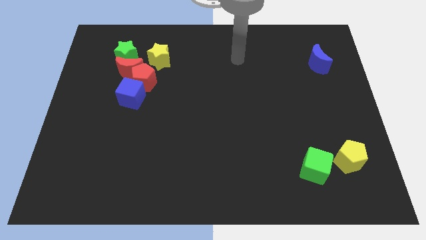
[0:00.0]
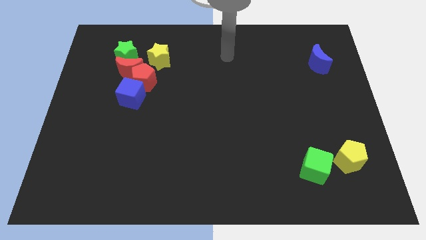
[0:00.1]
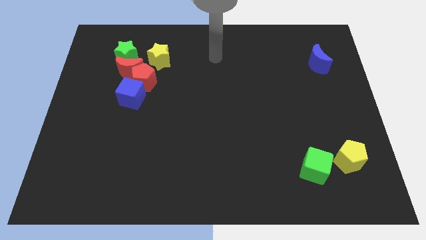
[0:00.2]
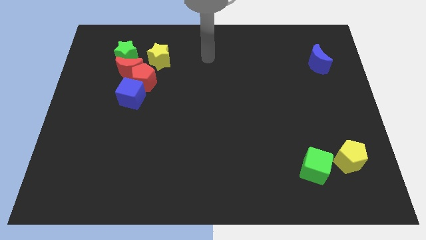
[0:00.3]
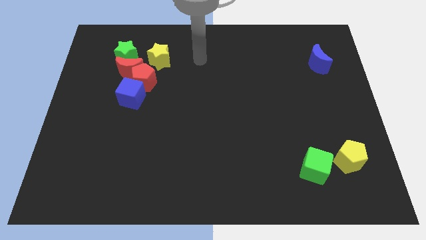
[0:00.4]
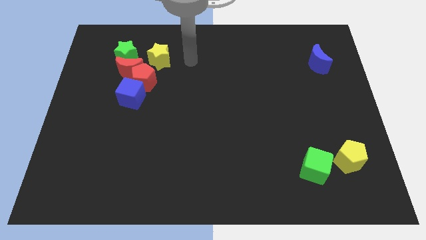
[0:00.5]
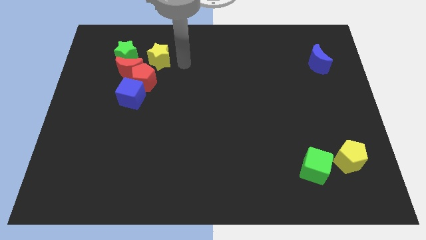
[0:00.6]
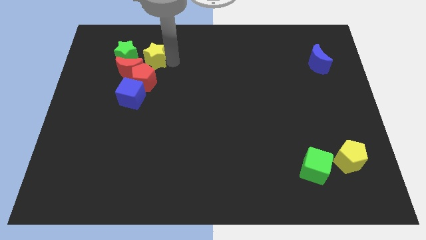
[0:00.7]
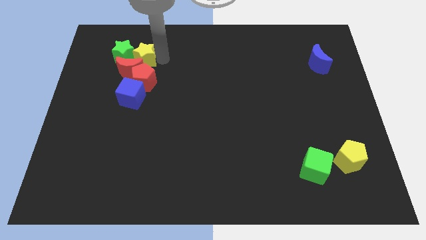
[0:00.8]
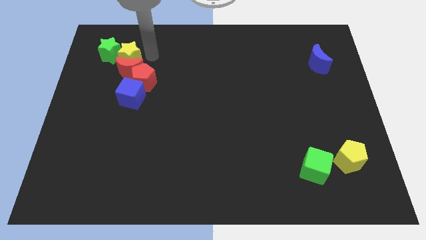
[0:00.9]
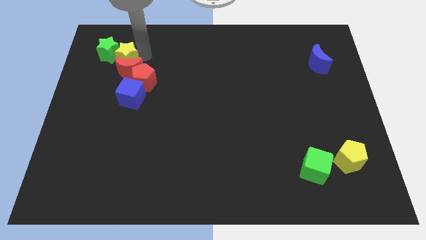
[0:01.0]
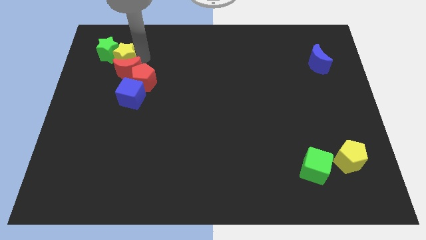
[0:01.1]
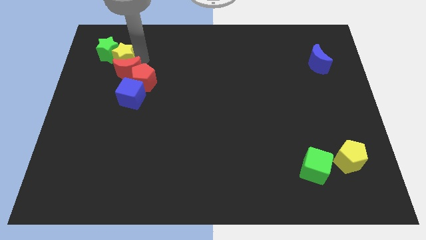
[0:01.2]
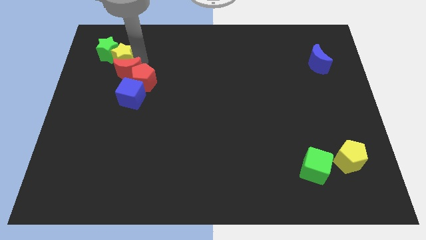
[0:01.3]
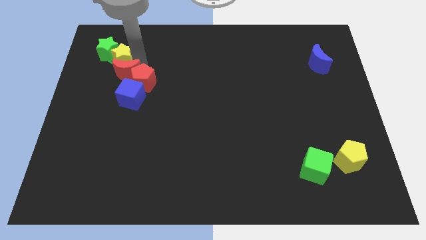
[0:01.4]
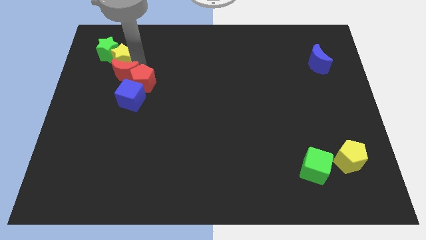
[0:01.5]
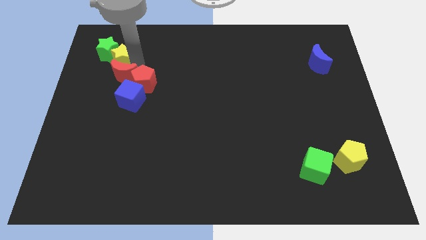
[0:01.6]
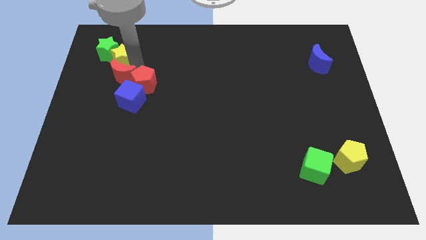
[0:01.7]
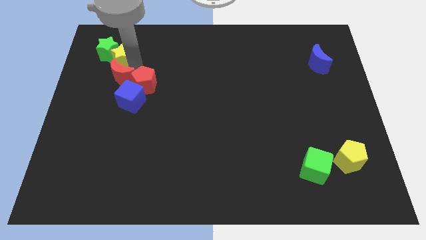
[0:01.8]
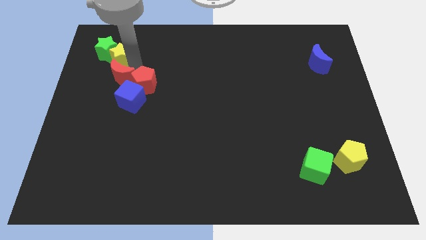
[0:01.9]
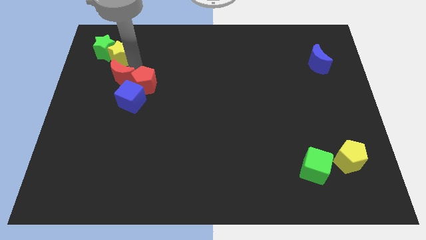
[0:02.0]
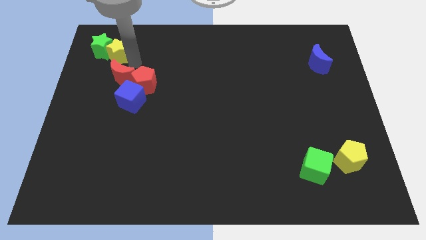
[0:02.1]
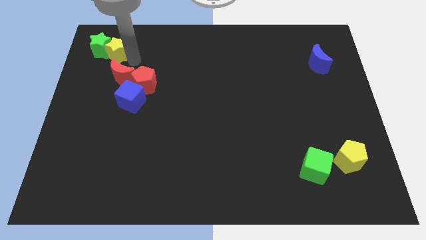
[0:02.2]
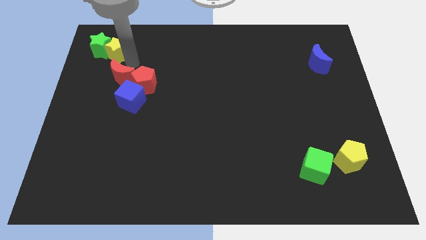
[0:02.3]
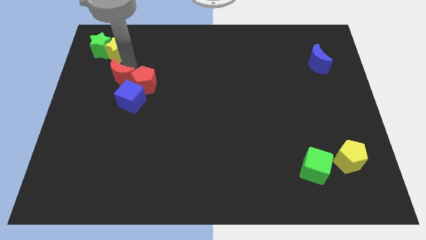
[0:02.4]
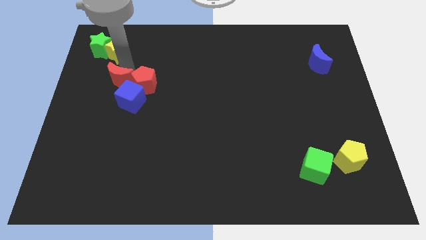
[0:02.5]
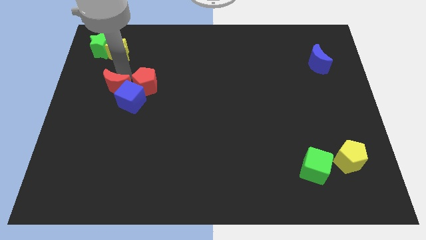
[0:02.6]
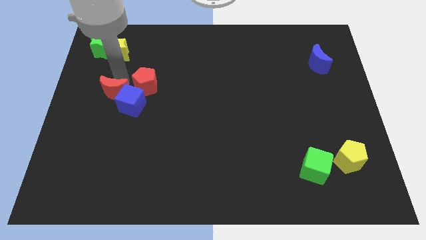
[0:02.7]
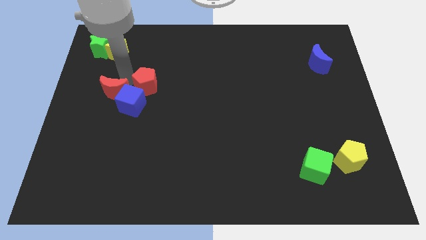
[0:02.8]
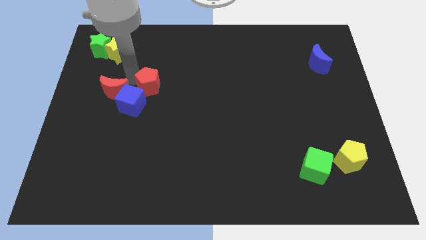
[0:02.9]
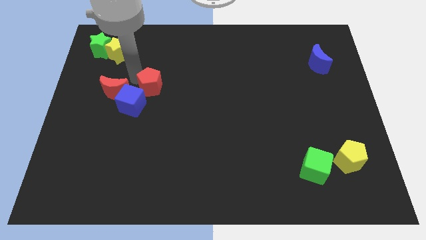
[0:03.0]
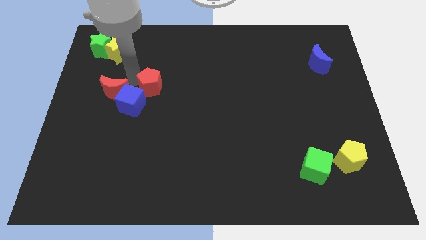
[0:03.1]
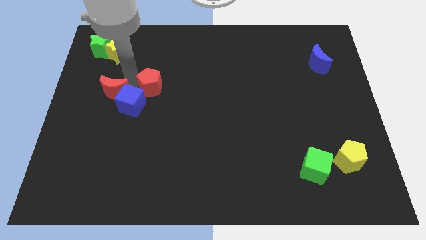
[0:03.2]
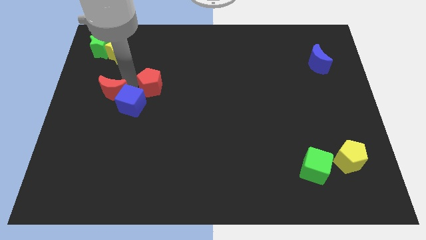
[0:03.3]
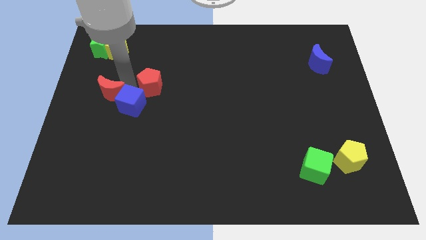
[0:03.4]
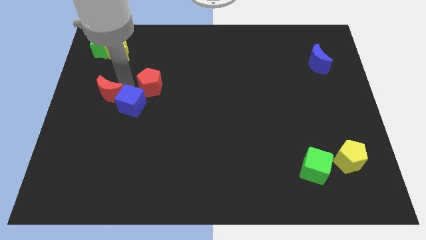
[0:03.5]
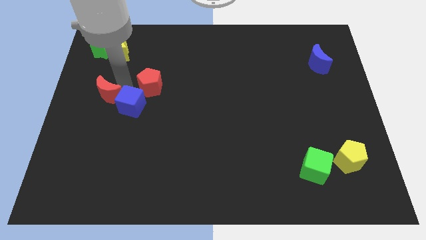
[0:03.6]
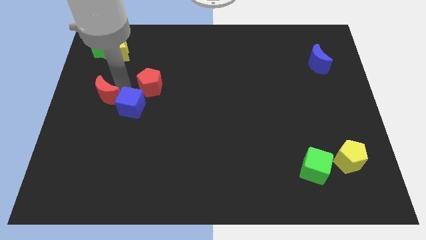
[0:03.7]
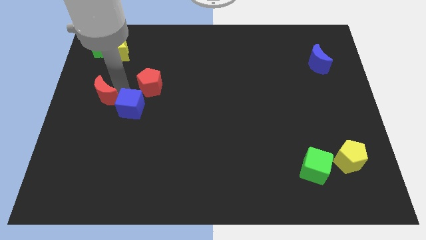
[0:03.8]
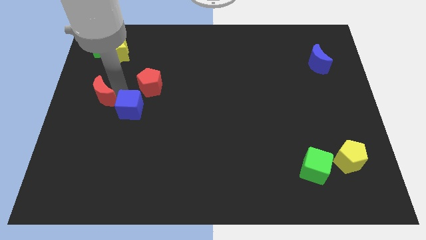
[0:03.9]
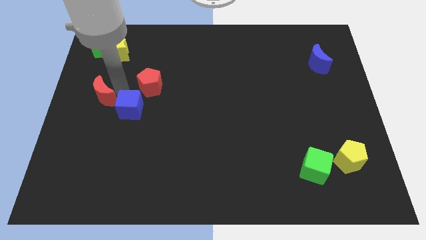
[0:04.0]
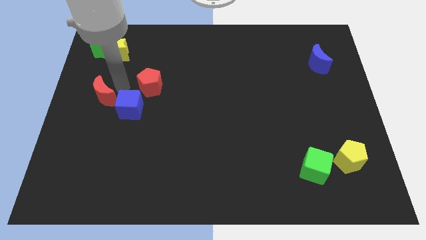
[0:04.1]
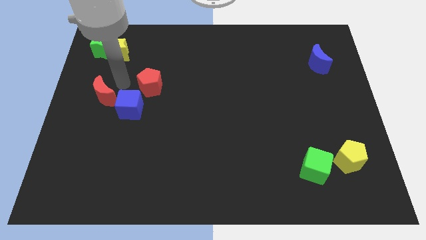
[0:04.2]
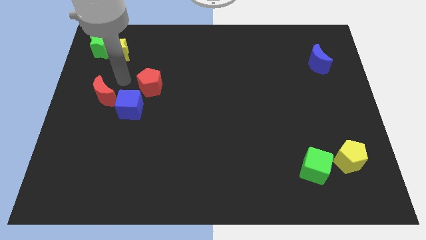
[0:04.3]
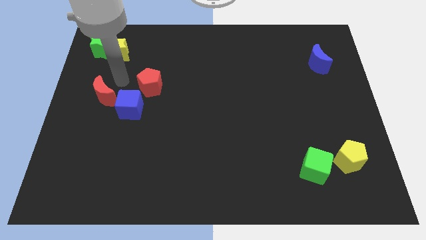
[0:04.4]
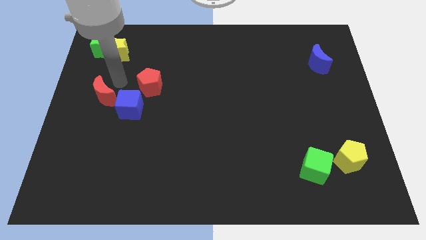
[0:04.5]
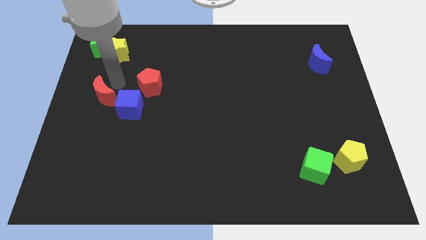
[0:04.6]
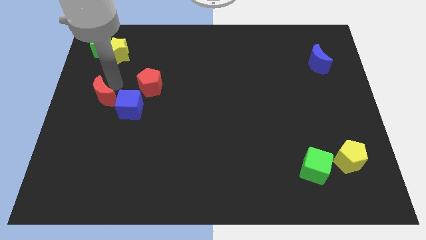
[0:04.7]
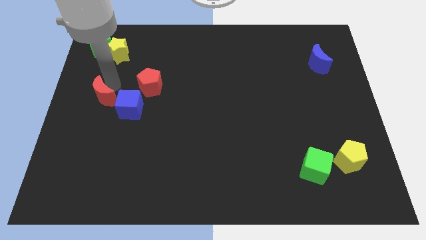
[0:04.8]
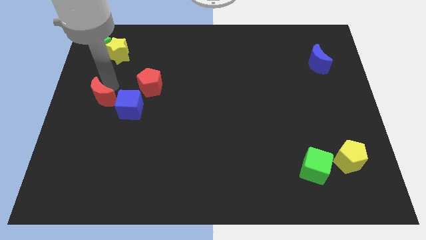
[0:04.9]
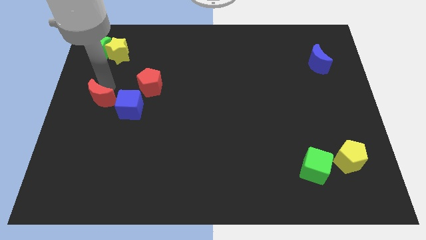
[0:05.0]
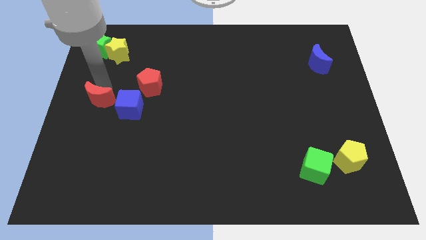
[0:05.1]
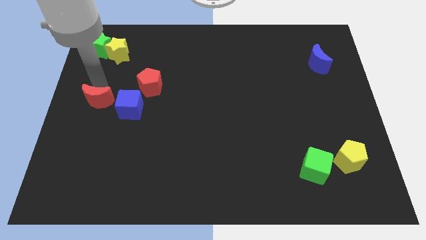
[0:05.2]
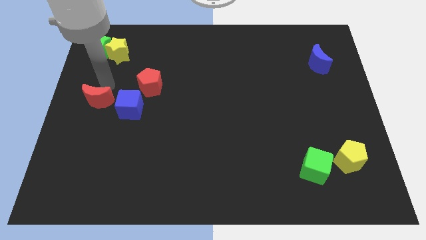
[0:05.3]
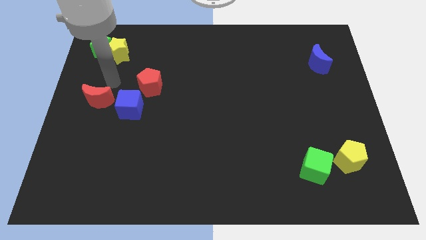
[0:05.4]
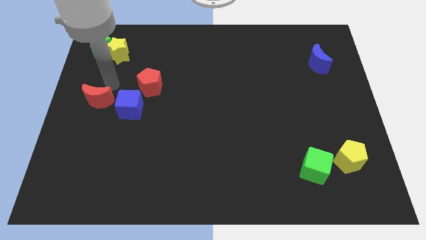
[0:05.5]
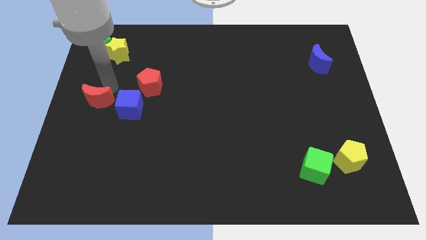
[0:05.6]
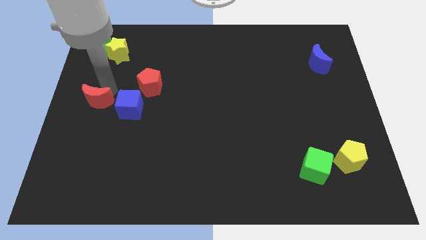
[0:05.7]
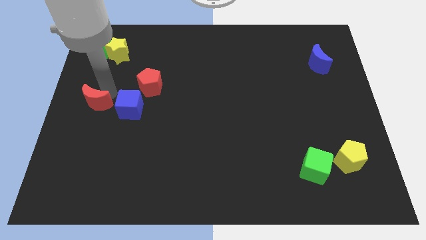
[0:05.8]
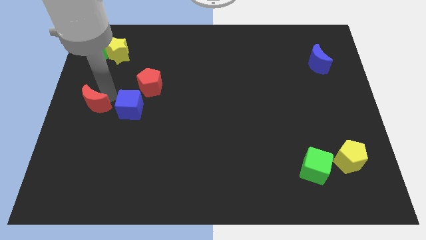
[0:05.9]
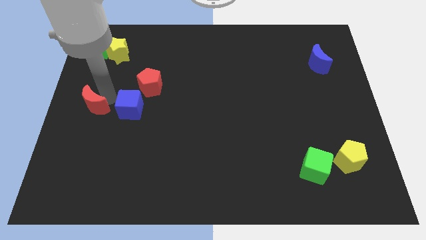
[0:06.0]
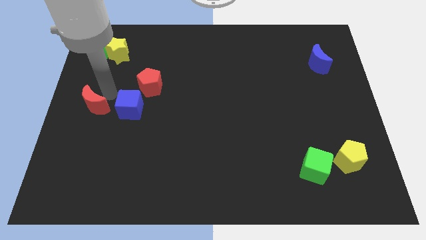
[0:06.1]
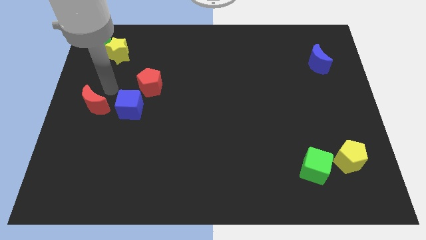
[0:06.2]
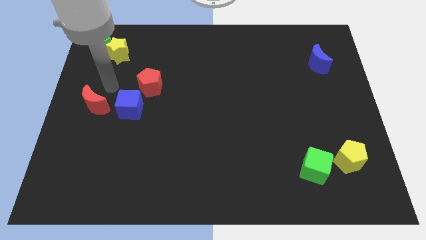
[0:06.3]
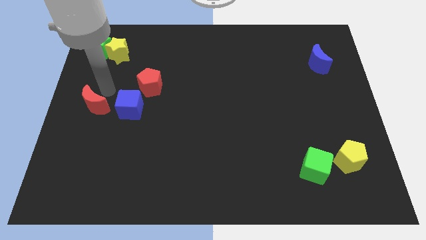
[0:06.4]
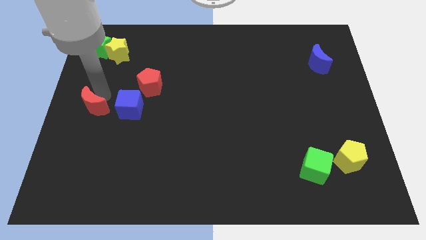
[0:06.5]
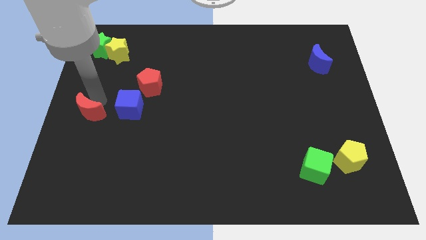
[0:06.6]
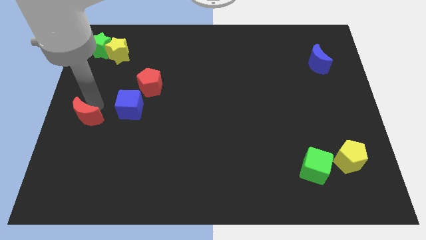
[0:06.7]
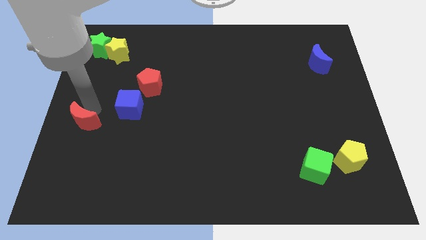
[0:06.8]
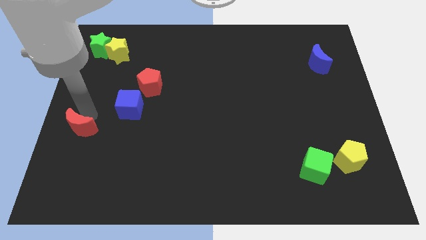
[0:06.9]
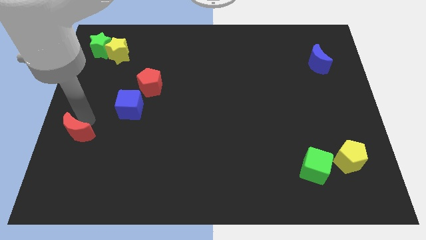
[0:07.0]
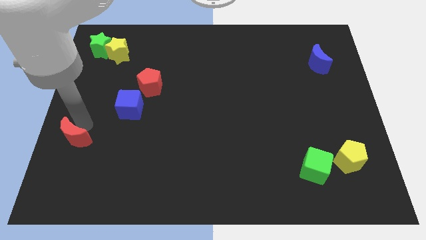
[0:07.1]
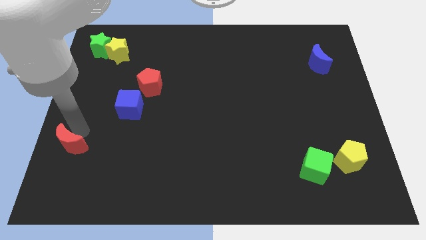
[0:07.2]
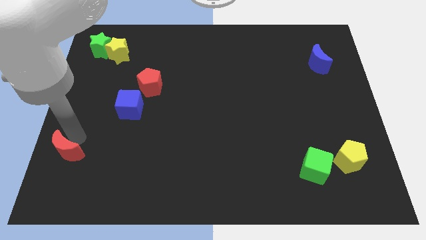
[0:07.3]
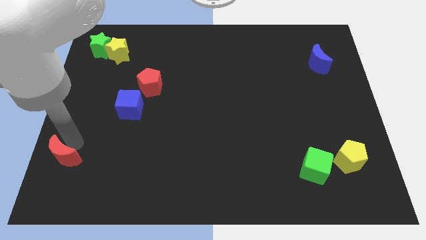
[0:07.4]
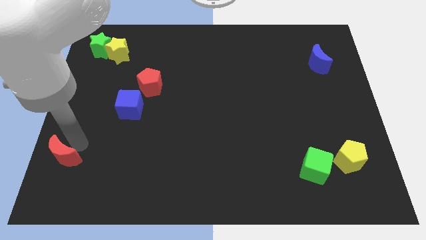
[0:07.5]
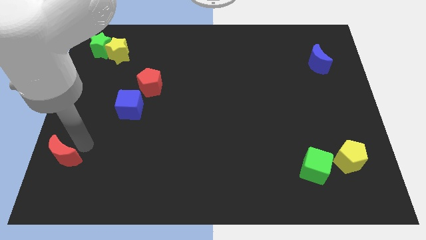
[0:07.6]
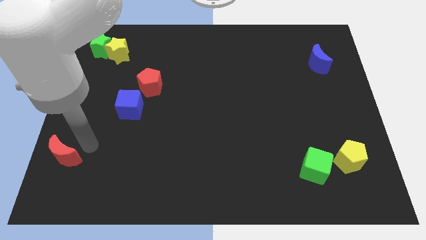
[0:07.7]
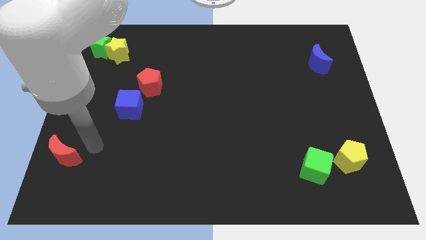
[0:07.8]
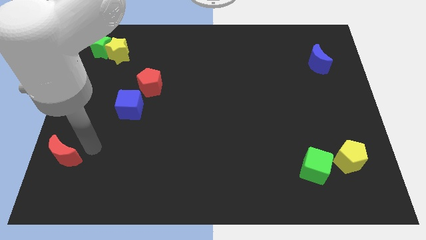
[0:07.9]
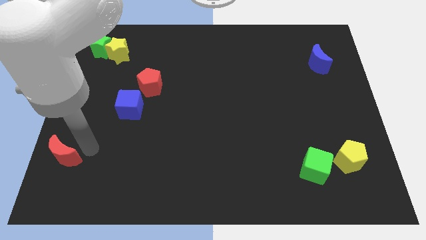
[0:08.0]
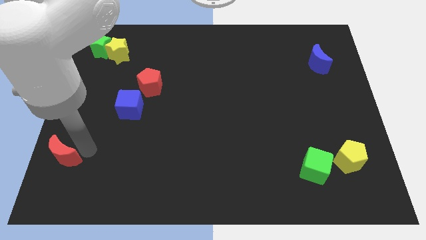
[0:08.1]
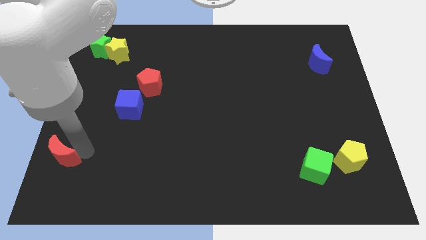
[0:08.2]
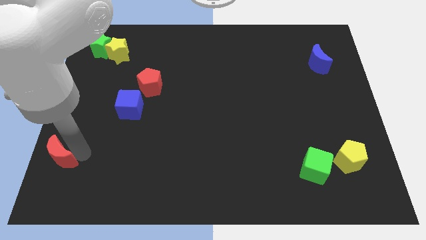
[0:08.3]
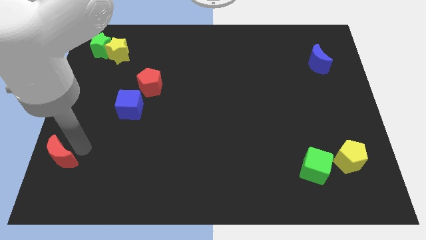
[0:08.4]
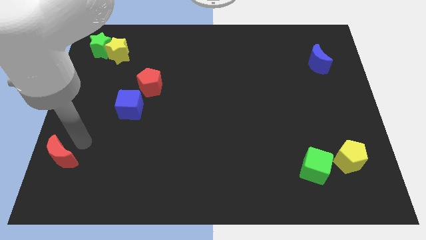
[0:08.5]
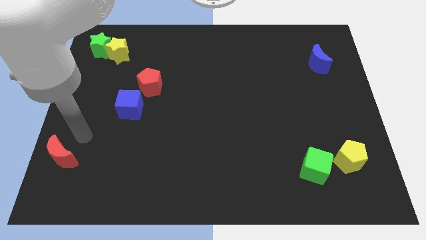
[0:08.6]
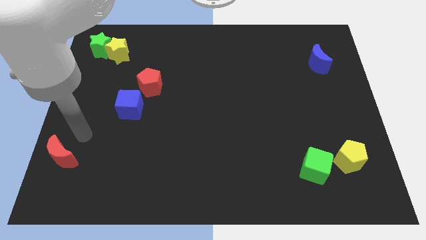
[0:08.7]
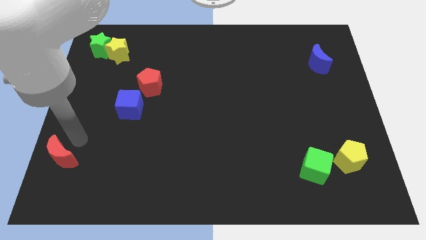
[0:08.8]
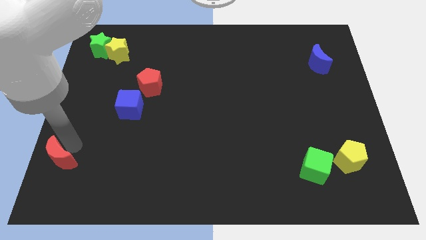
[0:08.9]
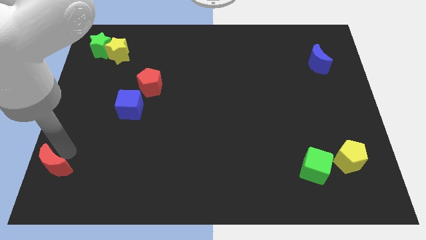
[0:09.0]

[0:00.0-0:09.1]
slide the red moon to the bottom left
